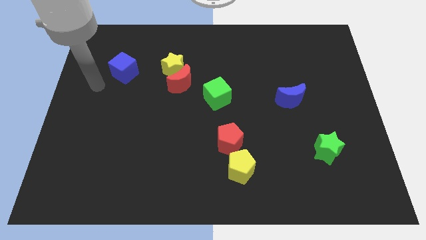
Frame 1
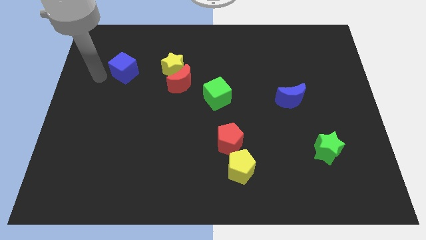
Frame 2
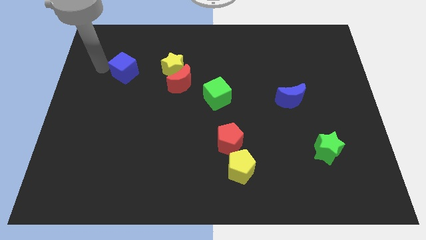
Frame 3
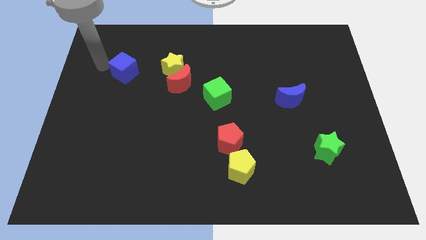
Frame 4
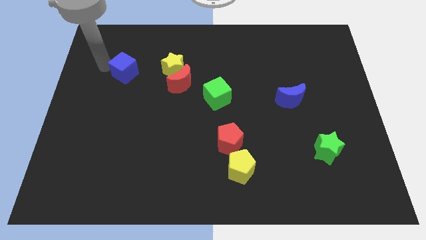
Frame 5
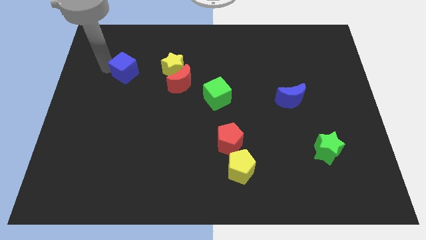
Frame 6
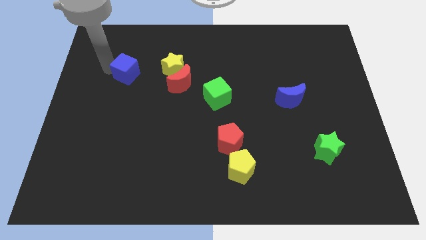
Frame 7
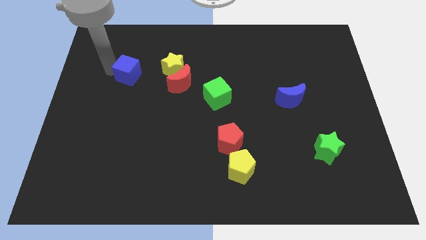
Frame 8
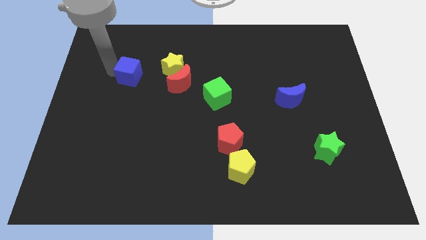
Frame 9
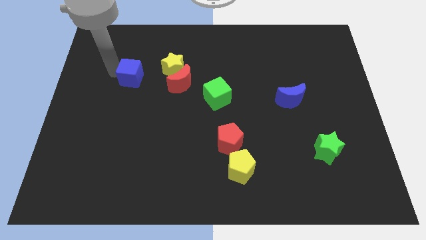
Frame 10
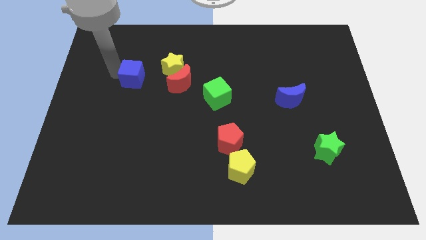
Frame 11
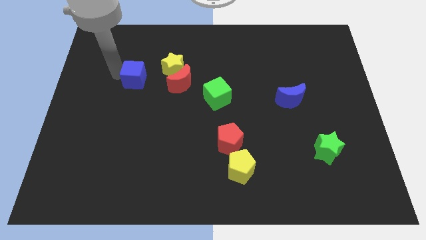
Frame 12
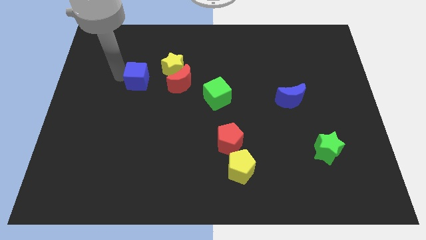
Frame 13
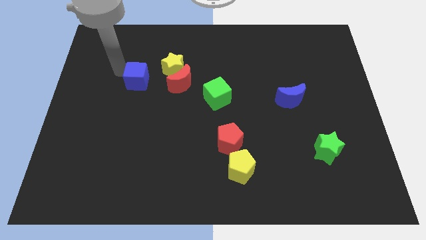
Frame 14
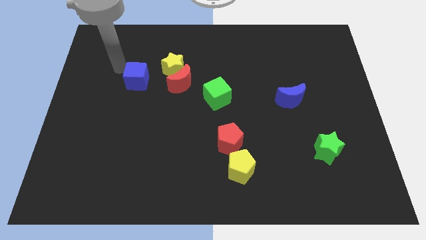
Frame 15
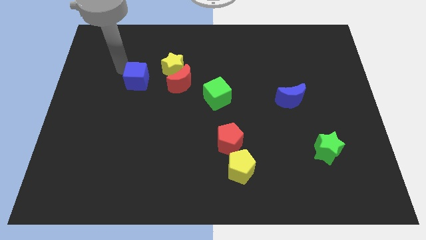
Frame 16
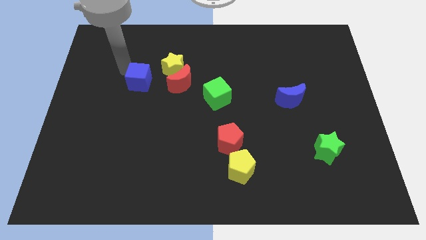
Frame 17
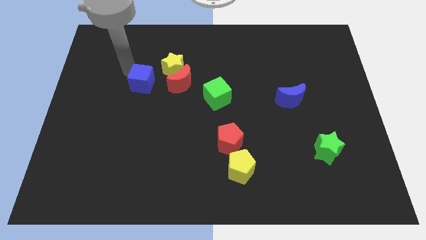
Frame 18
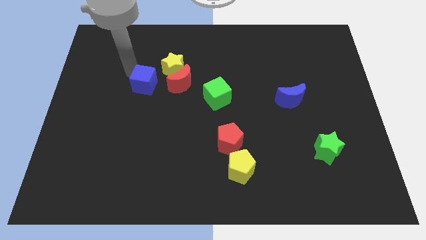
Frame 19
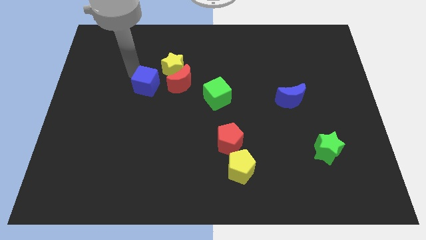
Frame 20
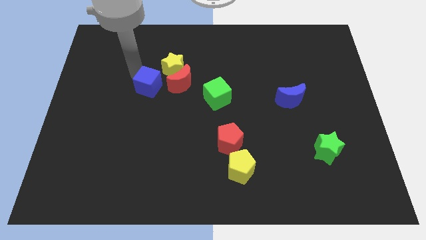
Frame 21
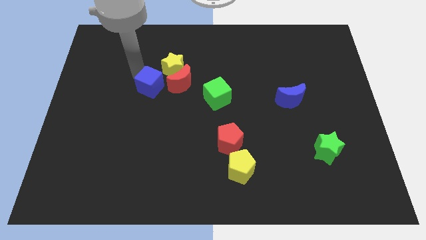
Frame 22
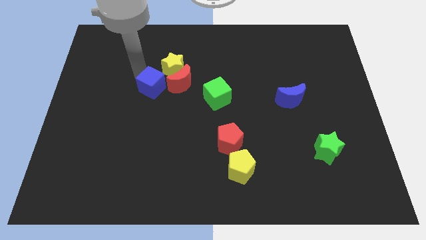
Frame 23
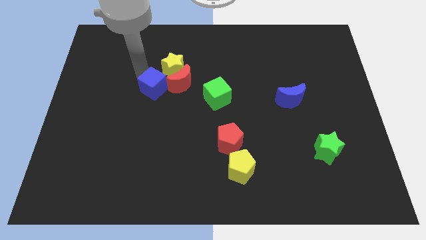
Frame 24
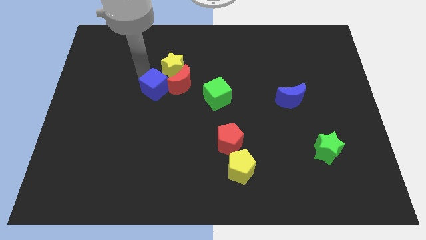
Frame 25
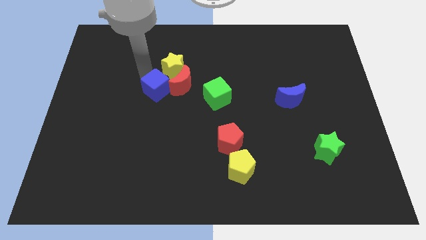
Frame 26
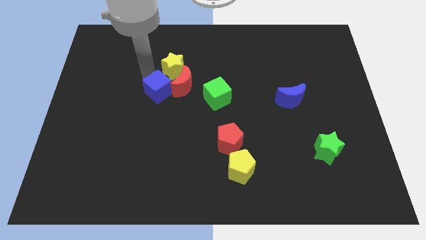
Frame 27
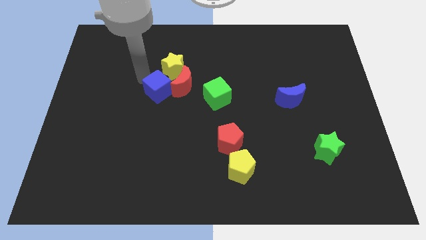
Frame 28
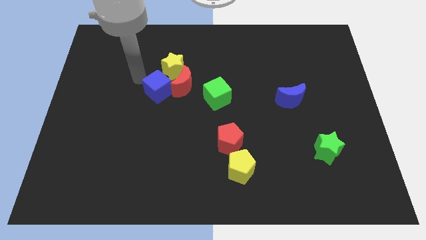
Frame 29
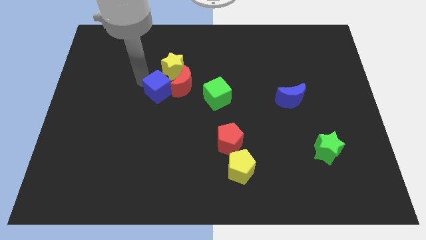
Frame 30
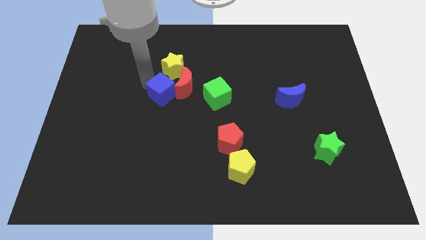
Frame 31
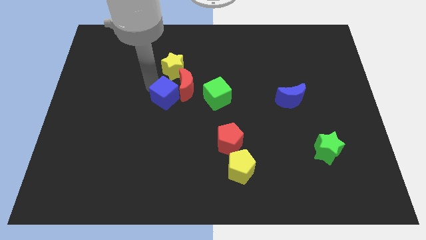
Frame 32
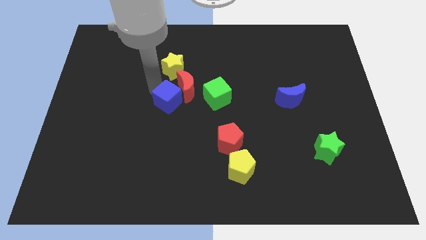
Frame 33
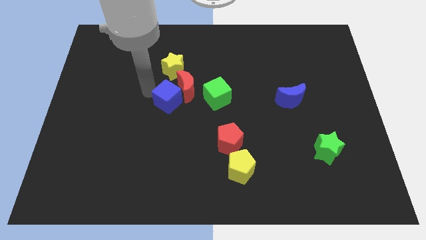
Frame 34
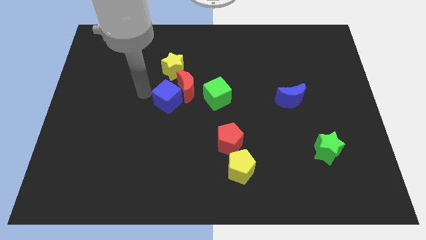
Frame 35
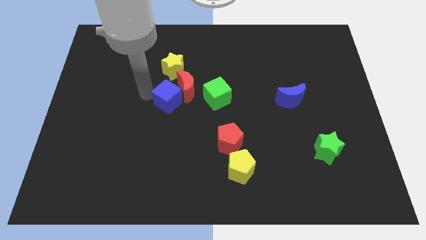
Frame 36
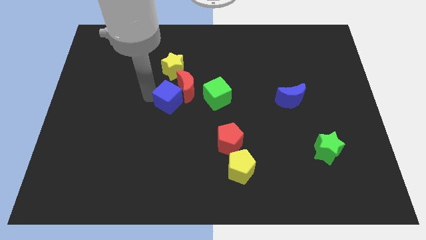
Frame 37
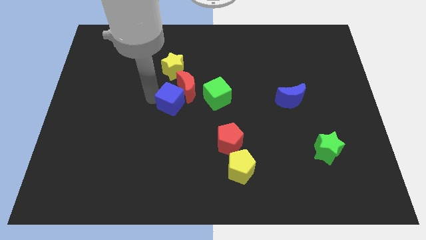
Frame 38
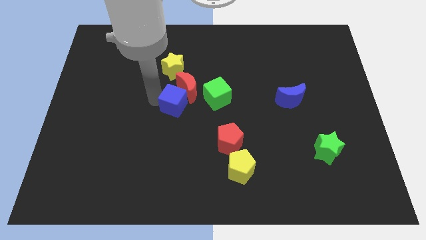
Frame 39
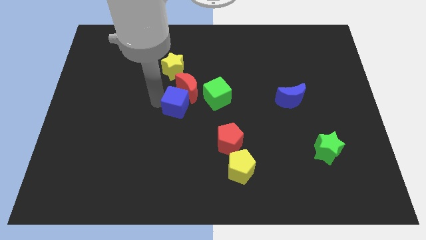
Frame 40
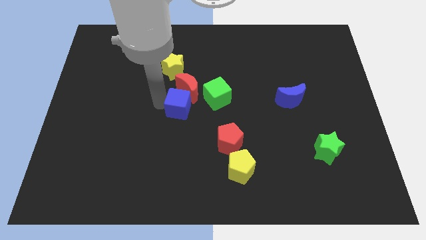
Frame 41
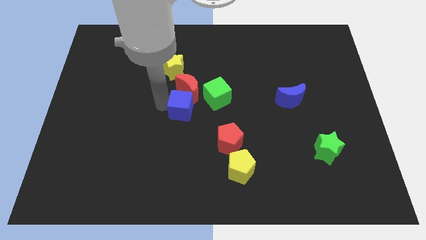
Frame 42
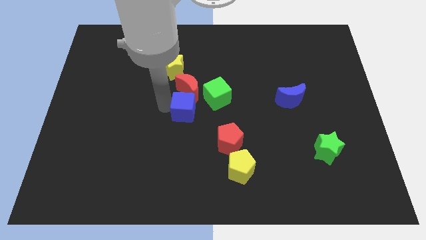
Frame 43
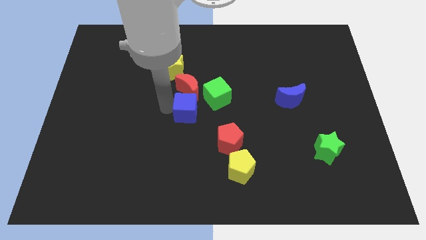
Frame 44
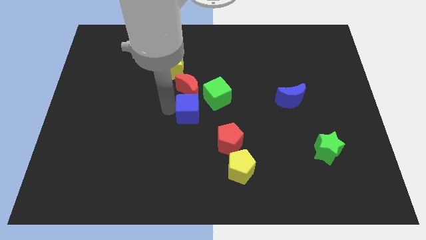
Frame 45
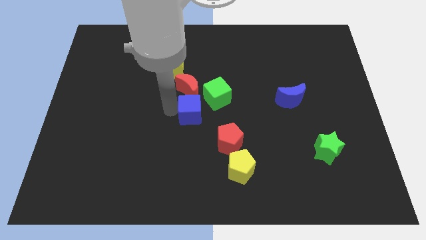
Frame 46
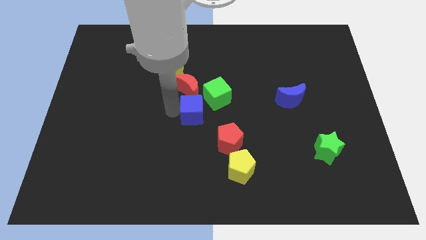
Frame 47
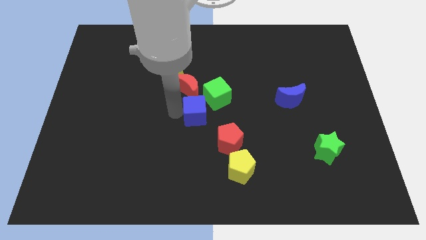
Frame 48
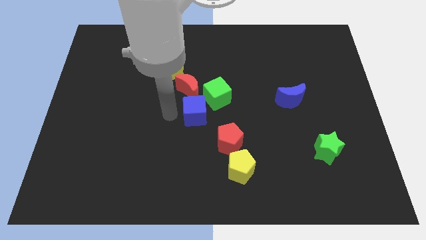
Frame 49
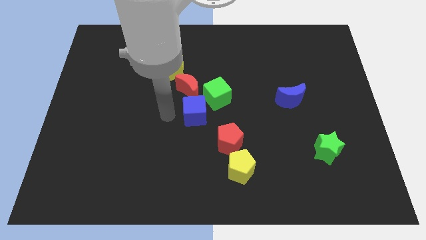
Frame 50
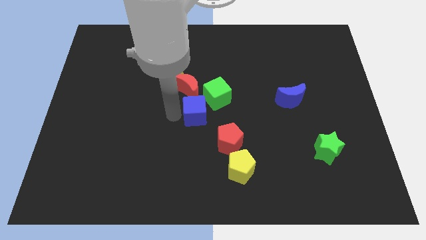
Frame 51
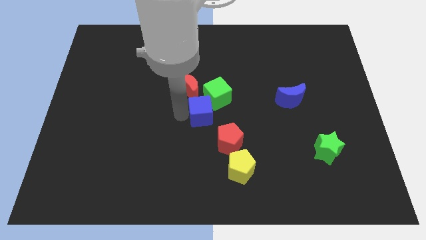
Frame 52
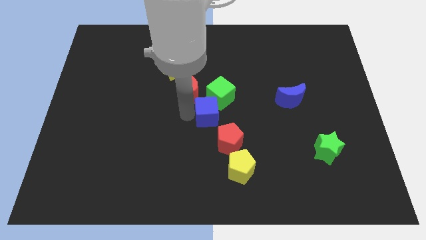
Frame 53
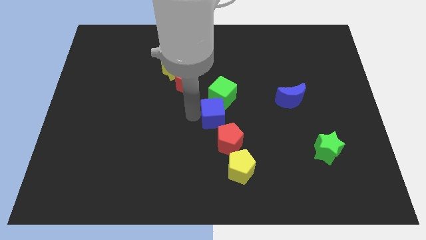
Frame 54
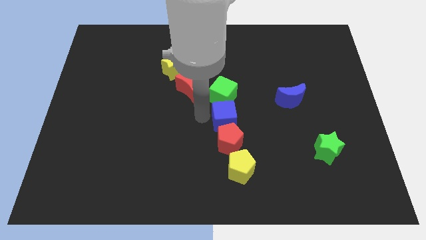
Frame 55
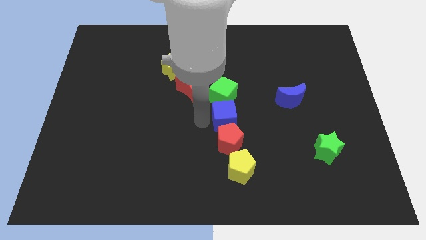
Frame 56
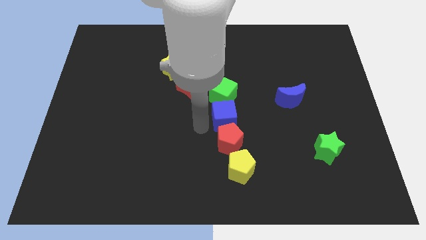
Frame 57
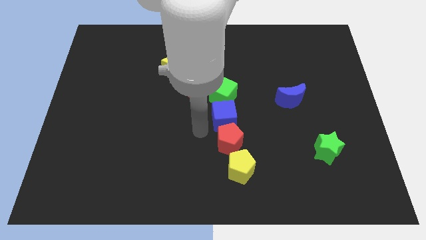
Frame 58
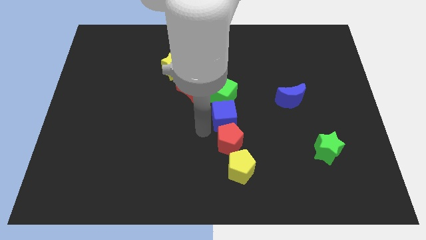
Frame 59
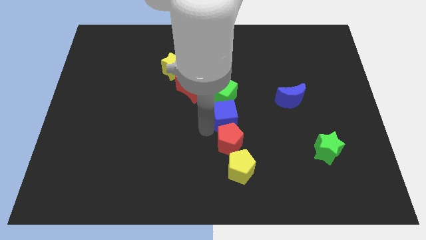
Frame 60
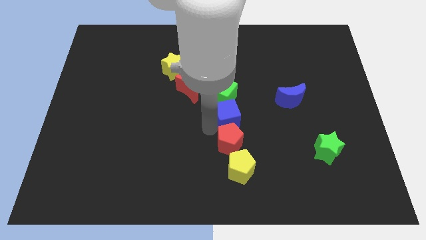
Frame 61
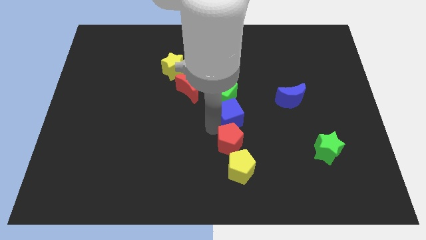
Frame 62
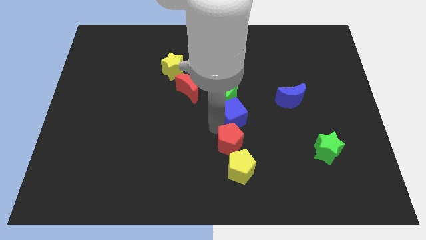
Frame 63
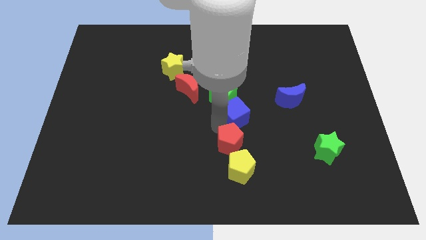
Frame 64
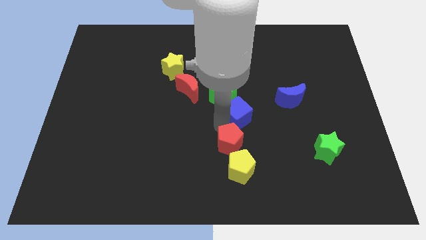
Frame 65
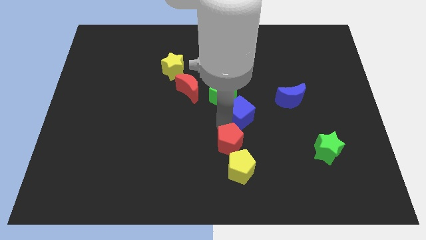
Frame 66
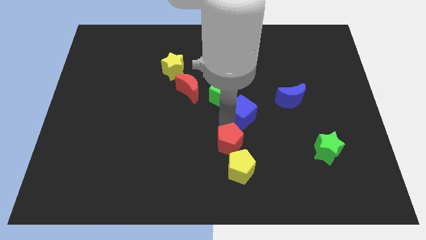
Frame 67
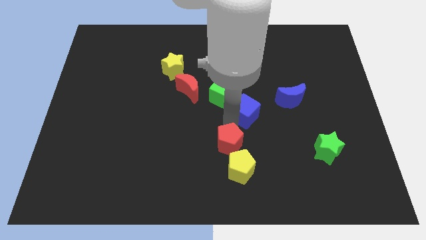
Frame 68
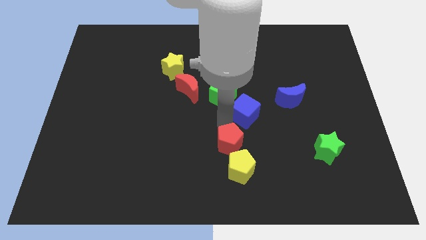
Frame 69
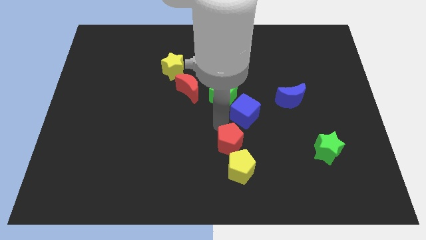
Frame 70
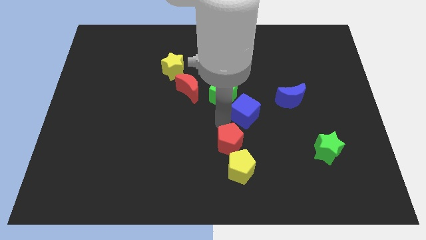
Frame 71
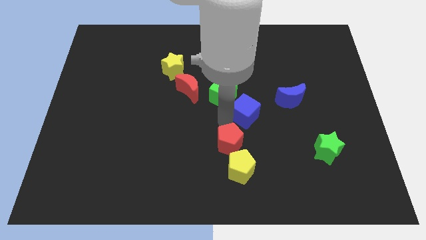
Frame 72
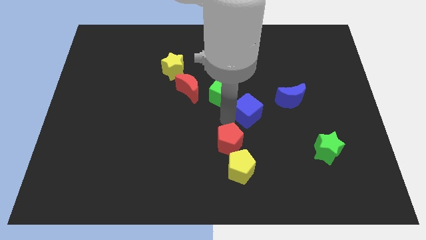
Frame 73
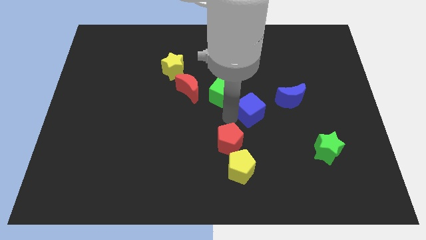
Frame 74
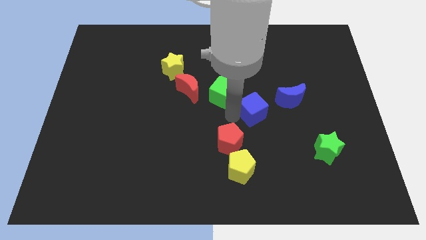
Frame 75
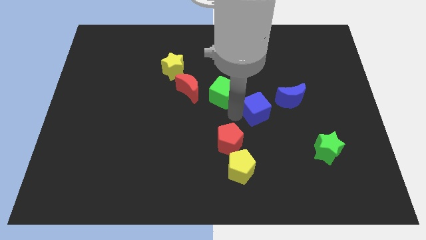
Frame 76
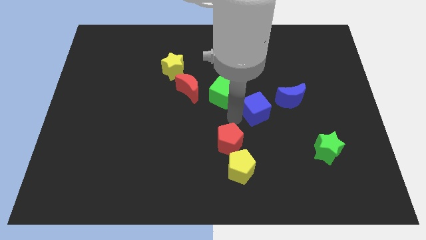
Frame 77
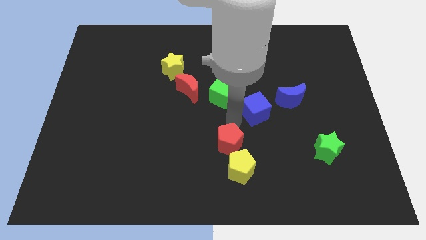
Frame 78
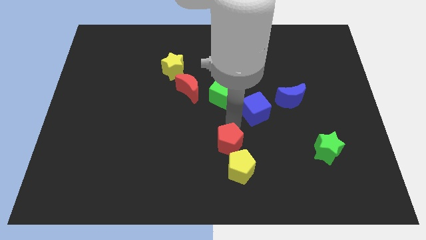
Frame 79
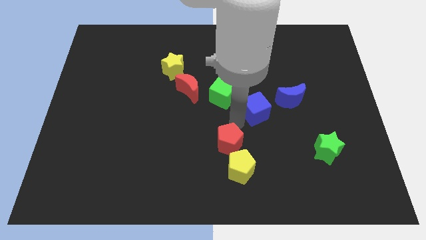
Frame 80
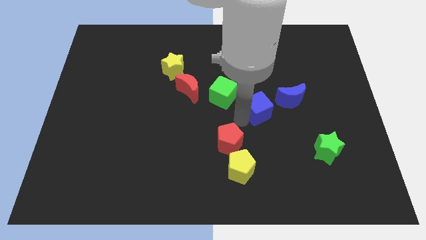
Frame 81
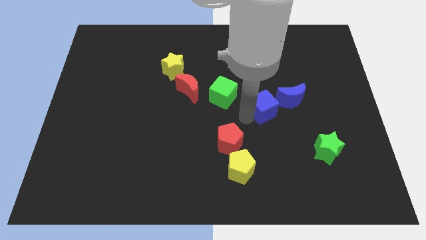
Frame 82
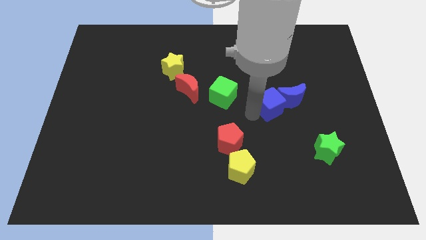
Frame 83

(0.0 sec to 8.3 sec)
push the blue cube towards the blue moon
